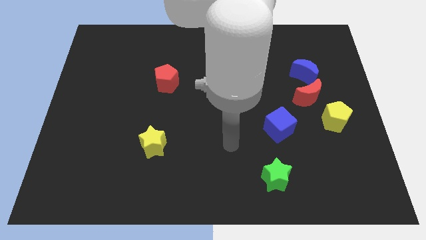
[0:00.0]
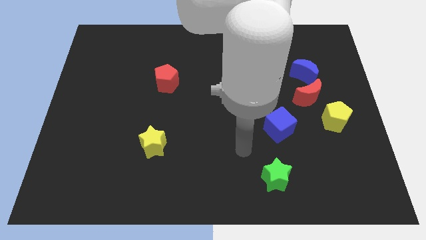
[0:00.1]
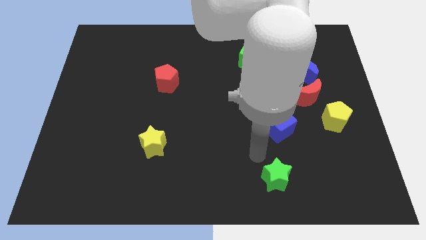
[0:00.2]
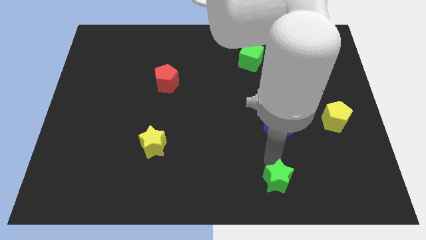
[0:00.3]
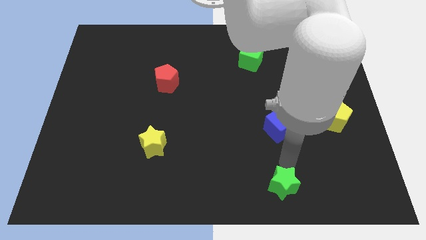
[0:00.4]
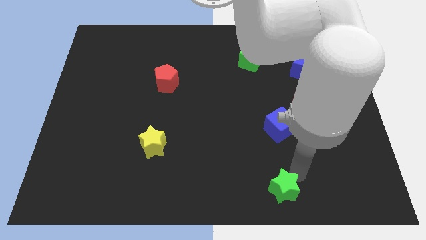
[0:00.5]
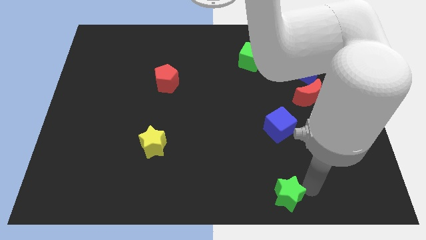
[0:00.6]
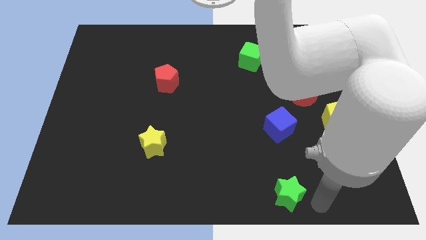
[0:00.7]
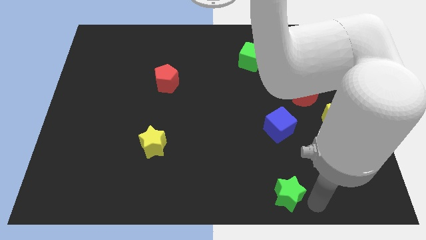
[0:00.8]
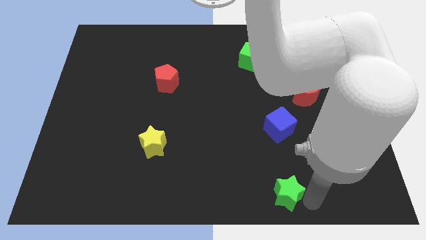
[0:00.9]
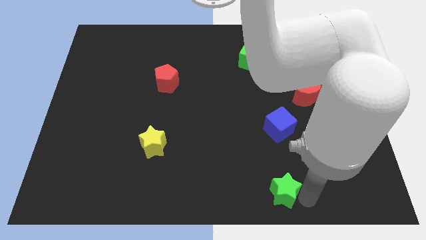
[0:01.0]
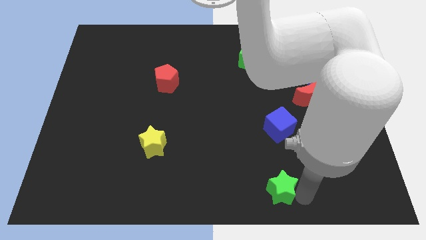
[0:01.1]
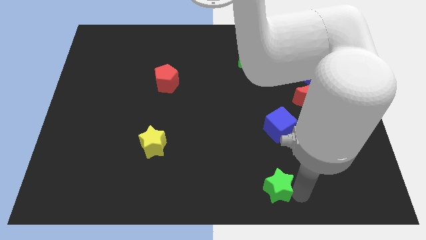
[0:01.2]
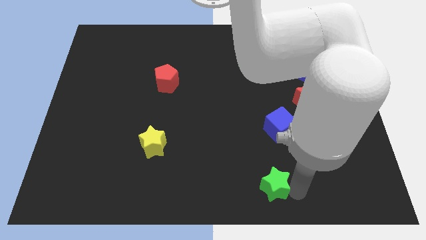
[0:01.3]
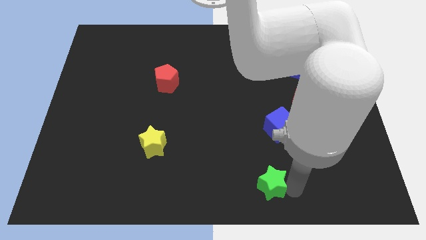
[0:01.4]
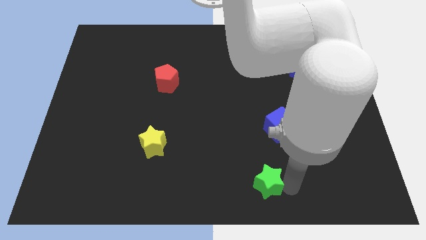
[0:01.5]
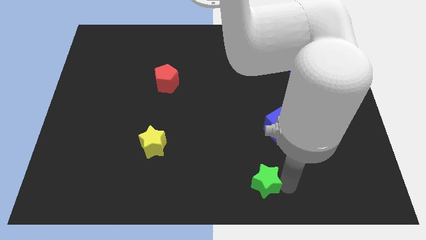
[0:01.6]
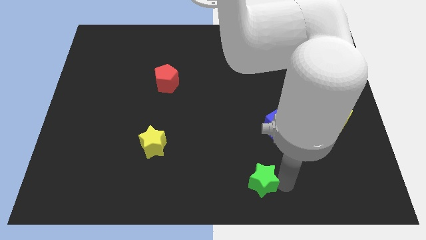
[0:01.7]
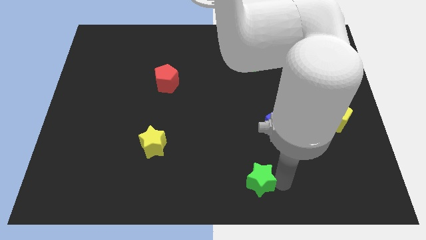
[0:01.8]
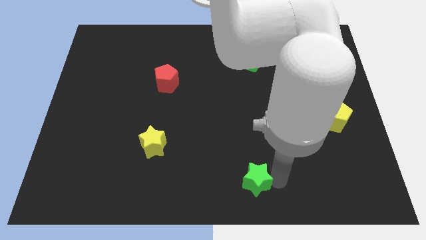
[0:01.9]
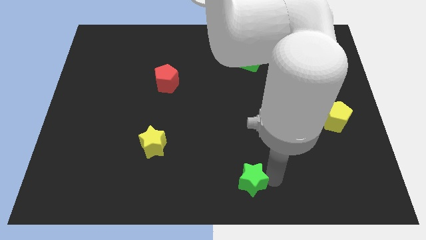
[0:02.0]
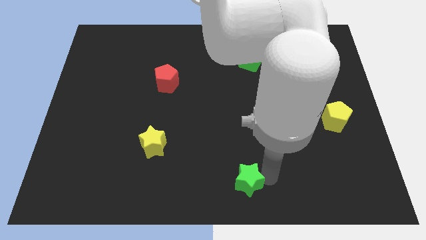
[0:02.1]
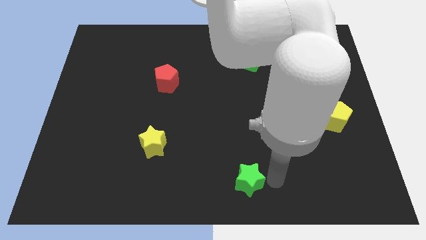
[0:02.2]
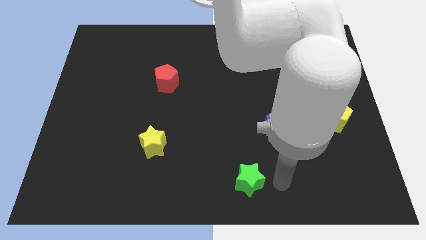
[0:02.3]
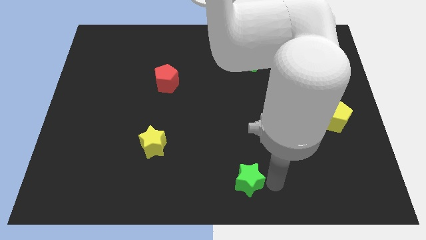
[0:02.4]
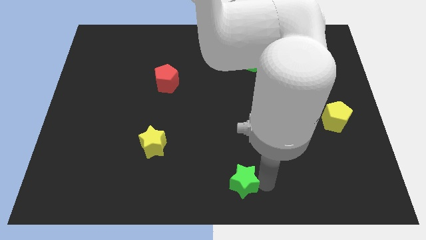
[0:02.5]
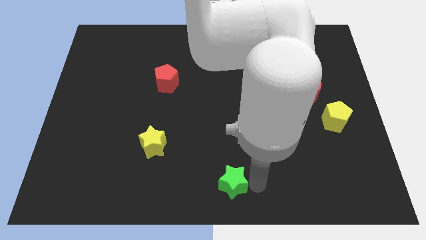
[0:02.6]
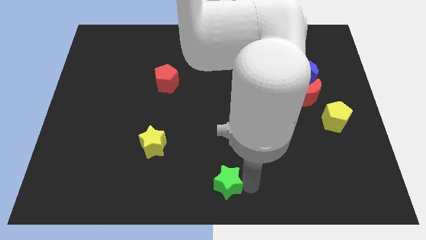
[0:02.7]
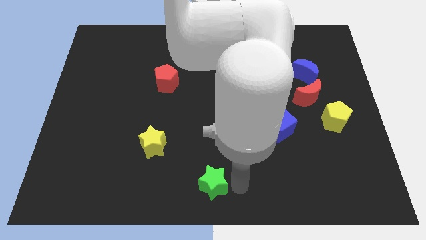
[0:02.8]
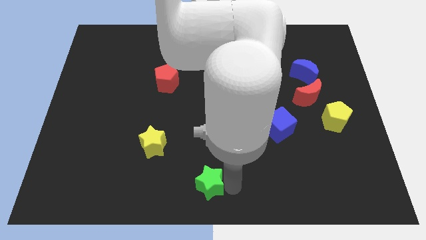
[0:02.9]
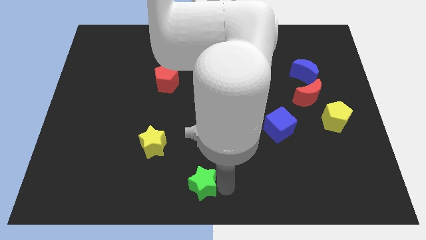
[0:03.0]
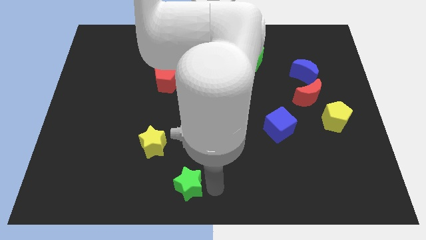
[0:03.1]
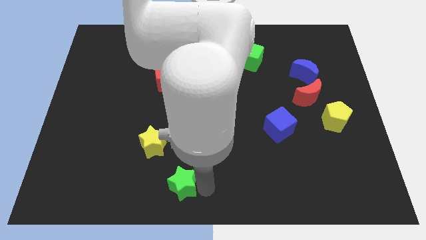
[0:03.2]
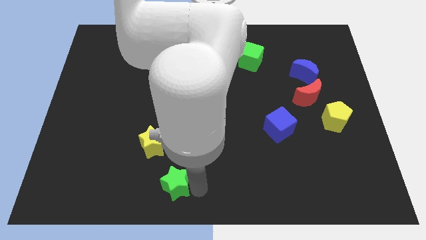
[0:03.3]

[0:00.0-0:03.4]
move the green star to the left

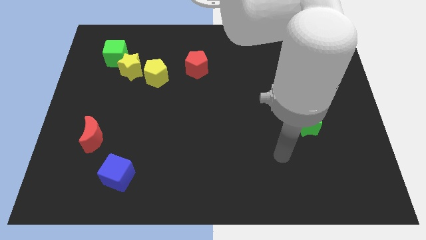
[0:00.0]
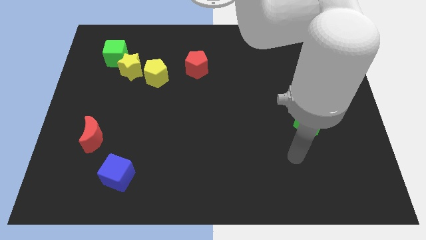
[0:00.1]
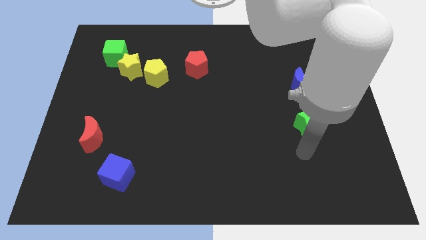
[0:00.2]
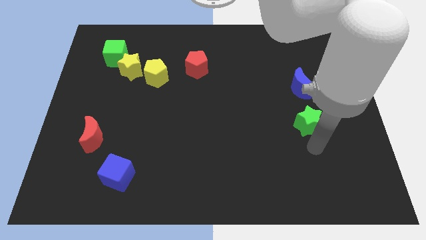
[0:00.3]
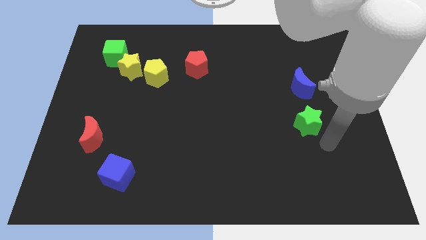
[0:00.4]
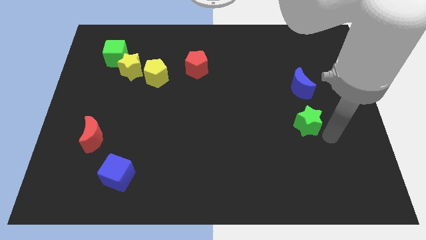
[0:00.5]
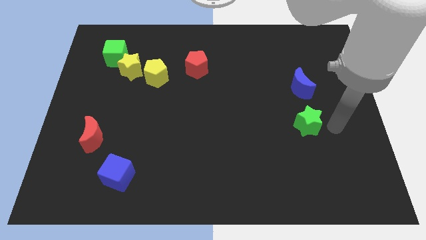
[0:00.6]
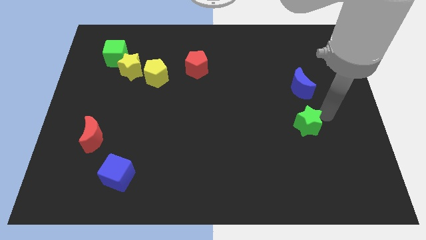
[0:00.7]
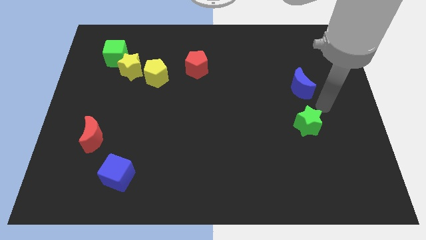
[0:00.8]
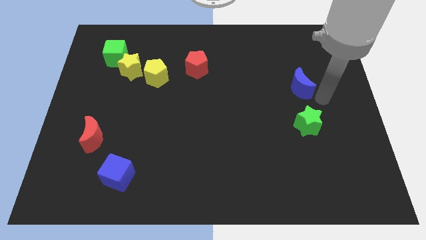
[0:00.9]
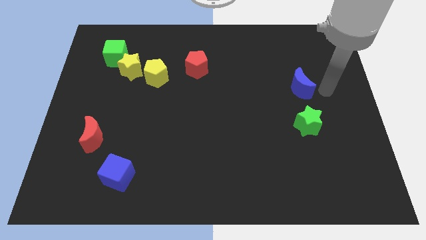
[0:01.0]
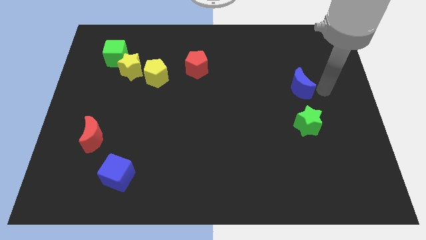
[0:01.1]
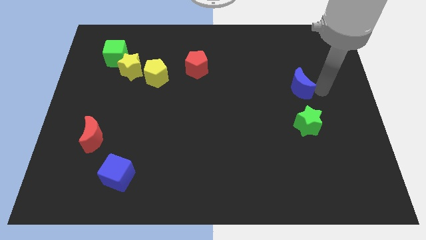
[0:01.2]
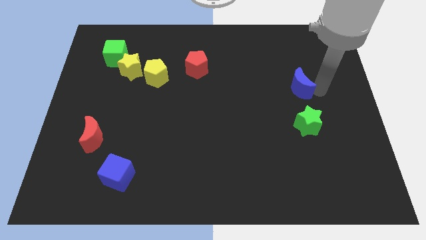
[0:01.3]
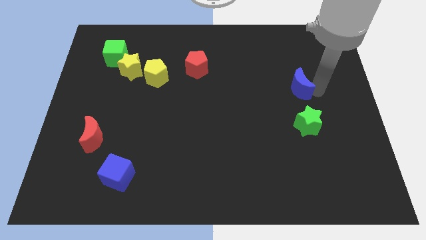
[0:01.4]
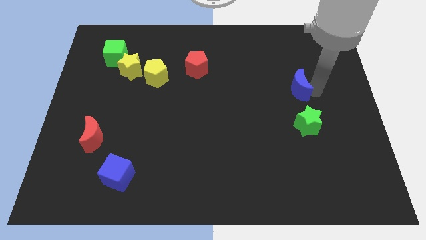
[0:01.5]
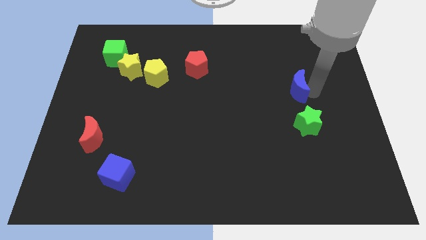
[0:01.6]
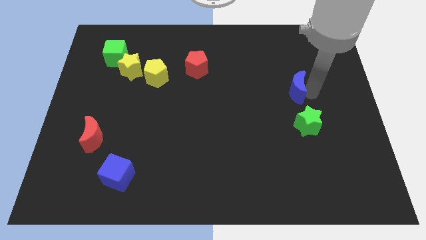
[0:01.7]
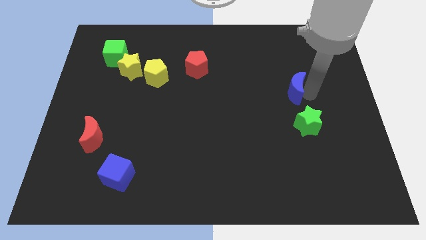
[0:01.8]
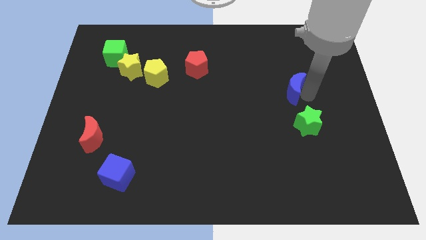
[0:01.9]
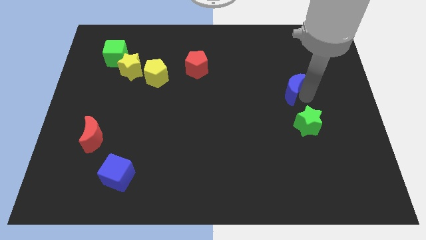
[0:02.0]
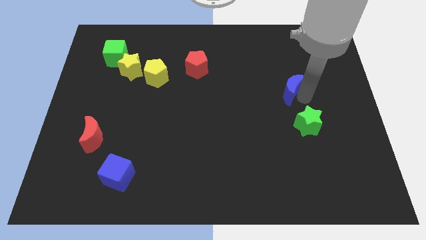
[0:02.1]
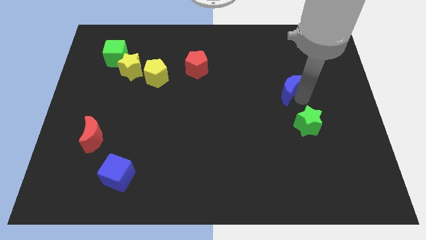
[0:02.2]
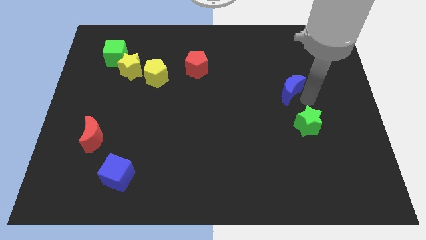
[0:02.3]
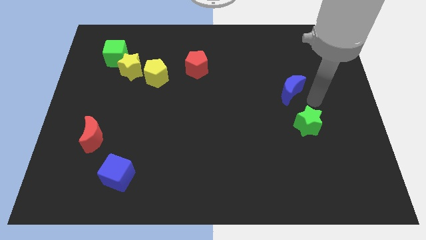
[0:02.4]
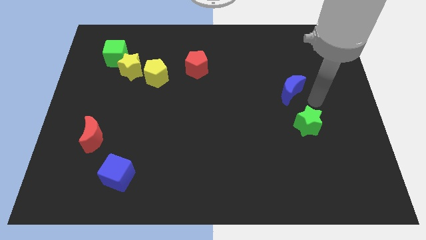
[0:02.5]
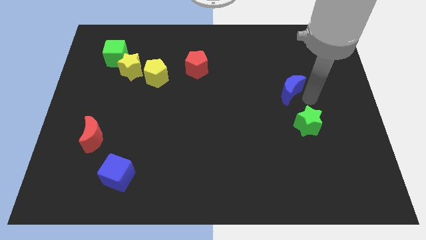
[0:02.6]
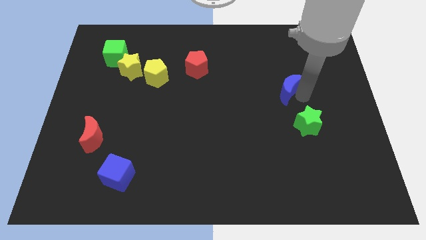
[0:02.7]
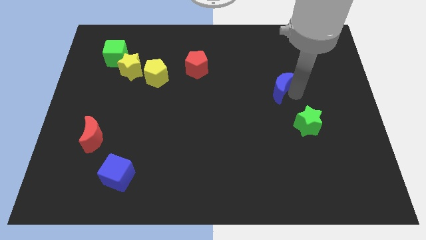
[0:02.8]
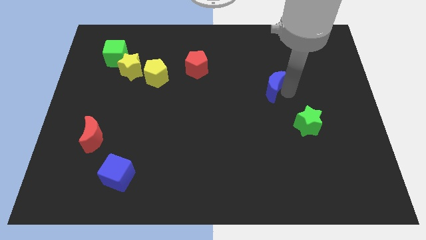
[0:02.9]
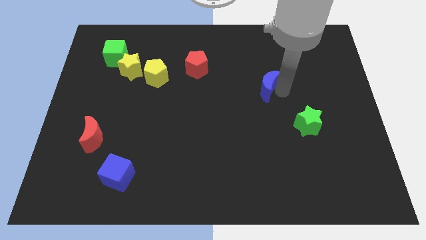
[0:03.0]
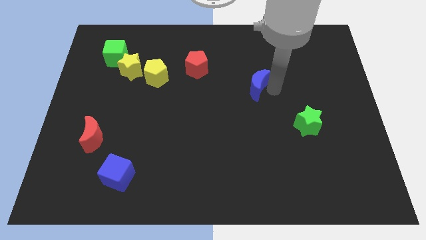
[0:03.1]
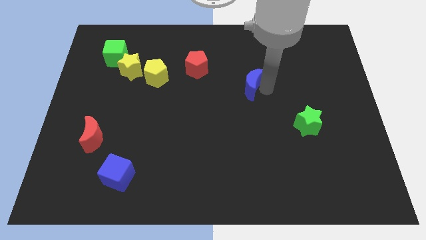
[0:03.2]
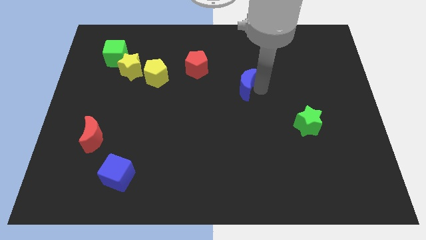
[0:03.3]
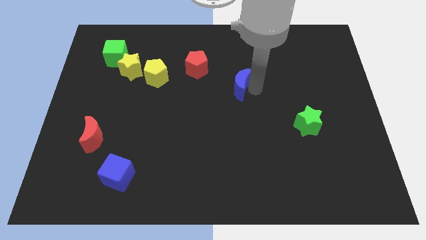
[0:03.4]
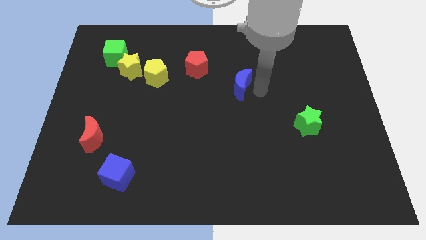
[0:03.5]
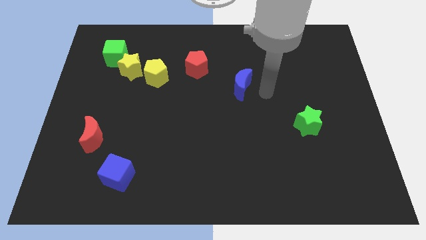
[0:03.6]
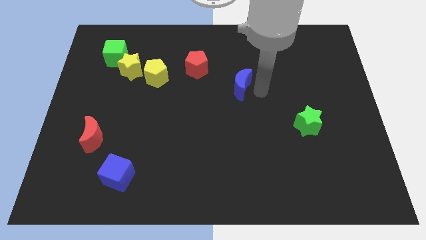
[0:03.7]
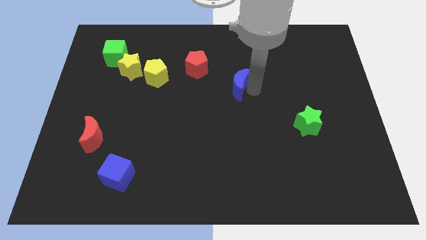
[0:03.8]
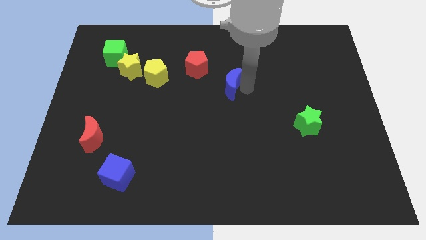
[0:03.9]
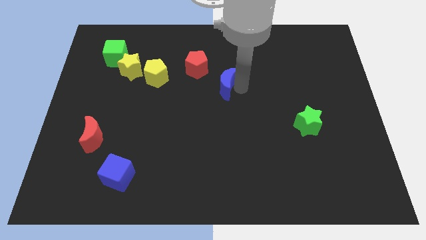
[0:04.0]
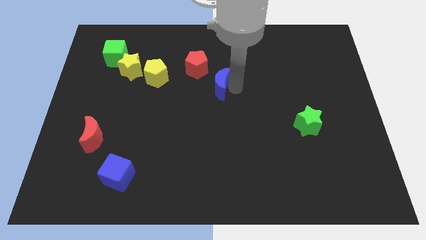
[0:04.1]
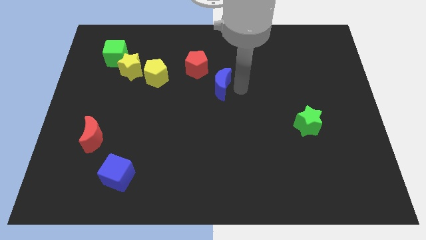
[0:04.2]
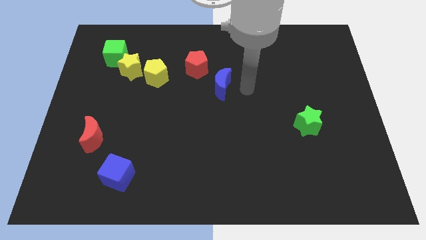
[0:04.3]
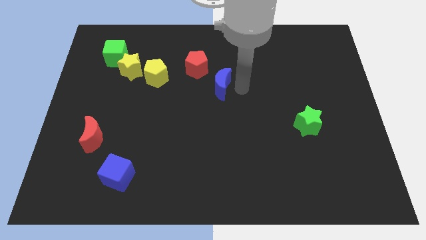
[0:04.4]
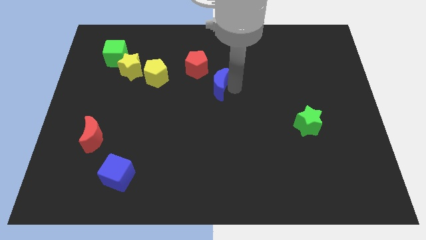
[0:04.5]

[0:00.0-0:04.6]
slide the blue moon left

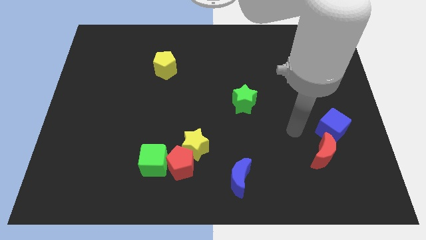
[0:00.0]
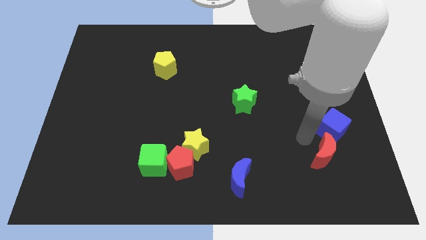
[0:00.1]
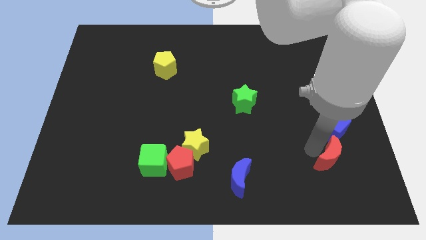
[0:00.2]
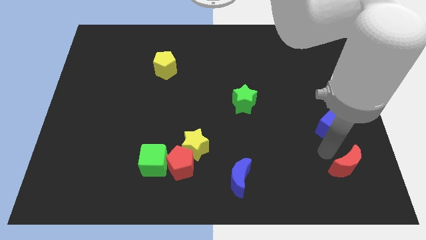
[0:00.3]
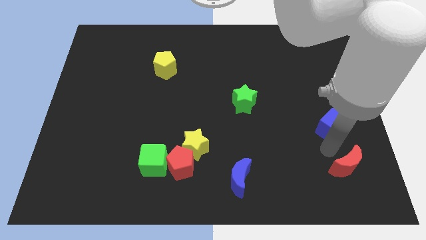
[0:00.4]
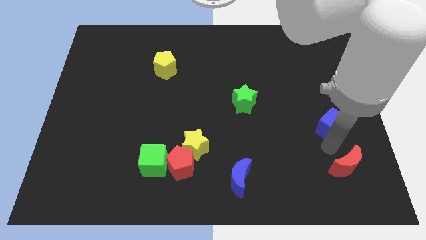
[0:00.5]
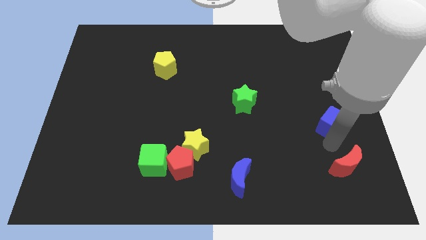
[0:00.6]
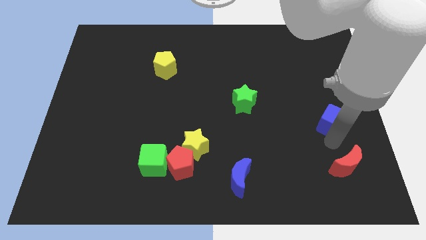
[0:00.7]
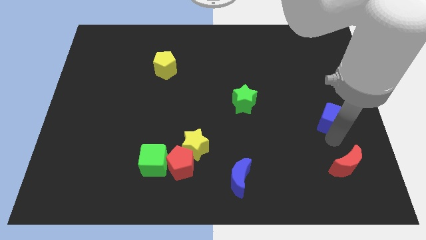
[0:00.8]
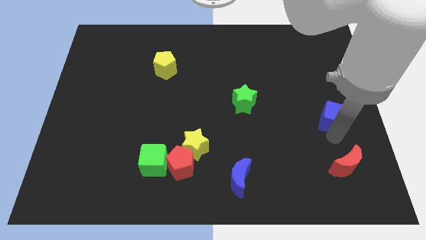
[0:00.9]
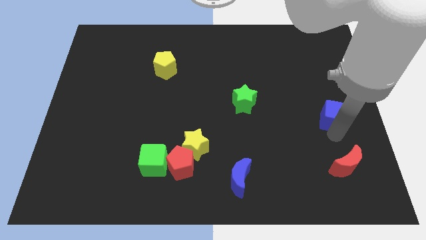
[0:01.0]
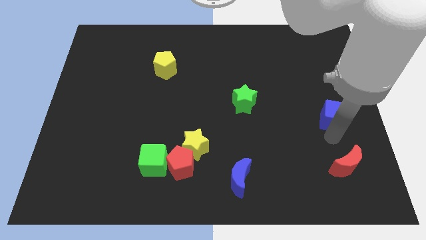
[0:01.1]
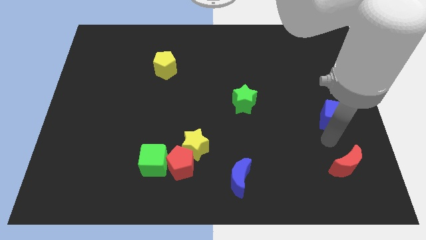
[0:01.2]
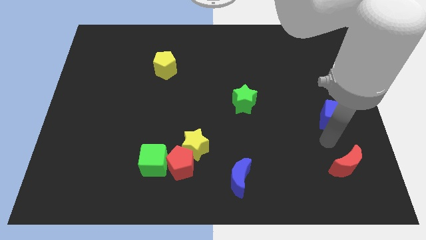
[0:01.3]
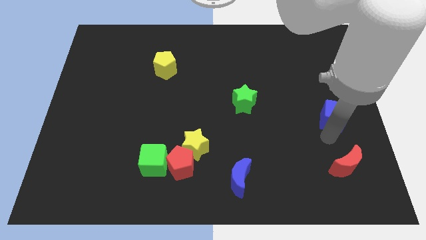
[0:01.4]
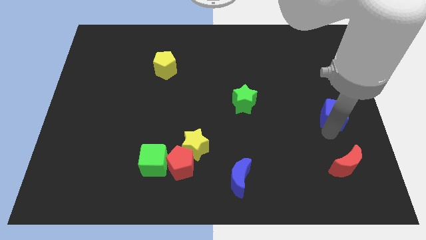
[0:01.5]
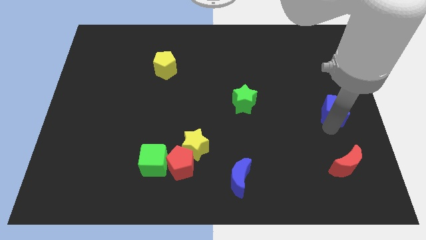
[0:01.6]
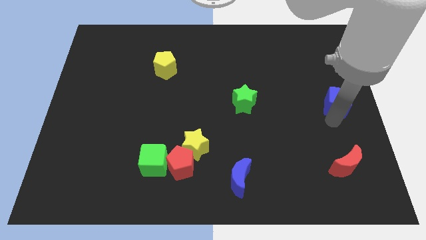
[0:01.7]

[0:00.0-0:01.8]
slightly move the blue cube up
